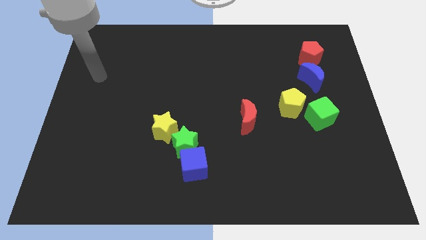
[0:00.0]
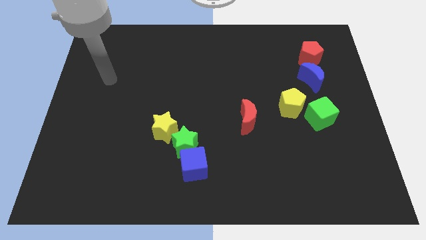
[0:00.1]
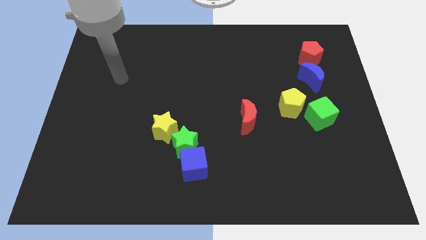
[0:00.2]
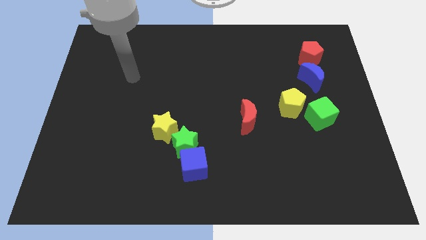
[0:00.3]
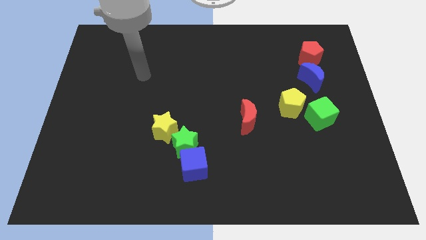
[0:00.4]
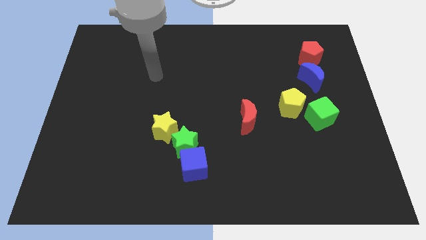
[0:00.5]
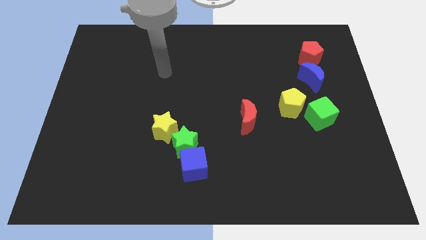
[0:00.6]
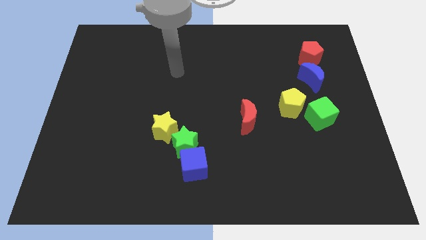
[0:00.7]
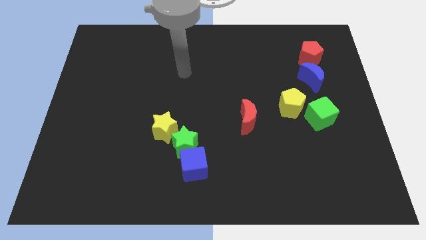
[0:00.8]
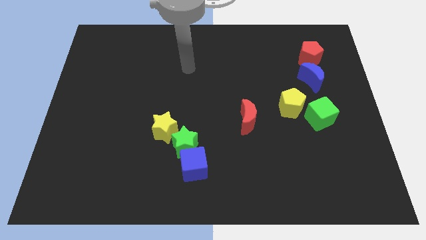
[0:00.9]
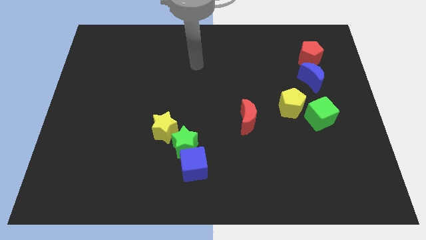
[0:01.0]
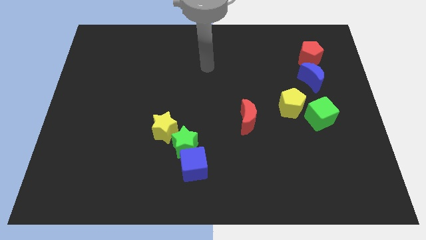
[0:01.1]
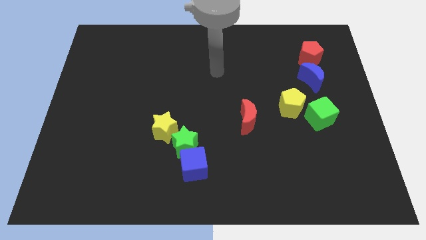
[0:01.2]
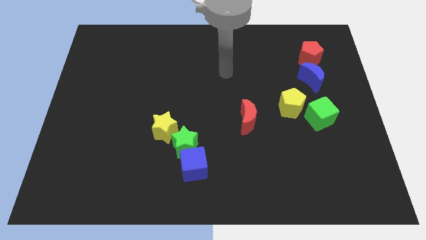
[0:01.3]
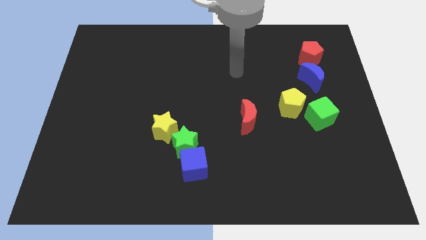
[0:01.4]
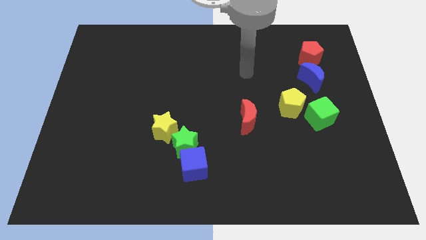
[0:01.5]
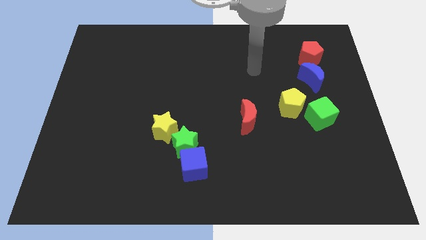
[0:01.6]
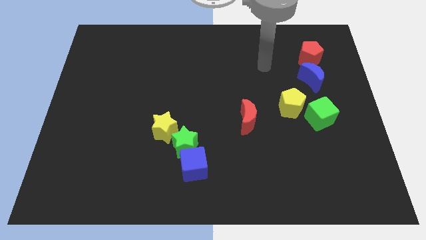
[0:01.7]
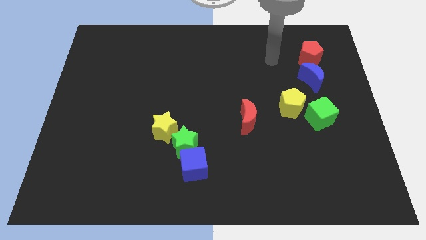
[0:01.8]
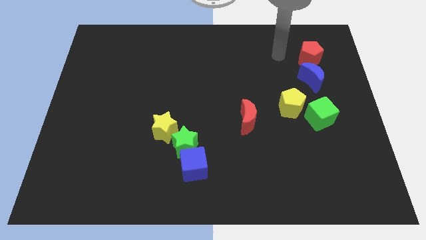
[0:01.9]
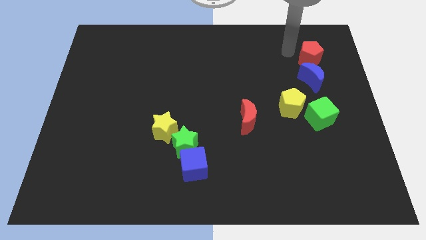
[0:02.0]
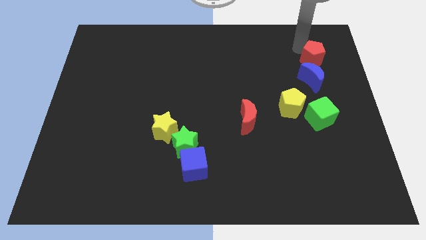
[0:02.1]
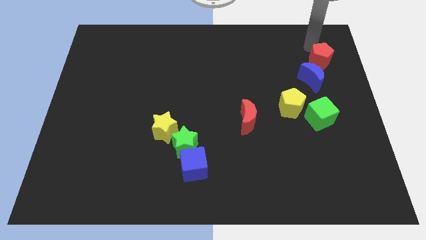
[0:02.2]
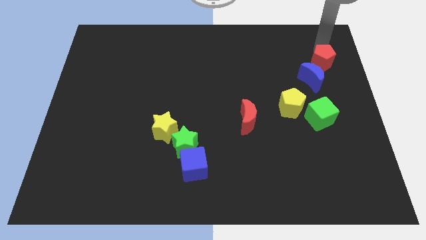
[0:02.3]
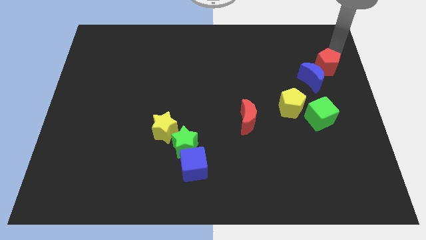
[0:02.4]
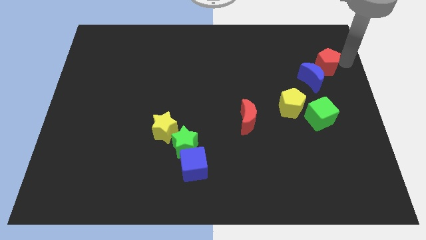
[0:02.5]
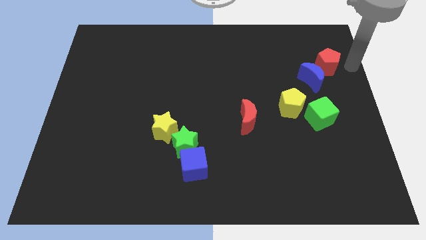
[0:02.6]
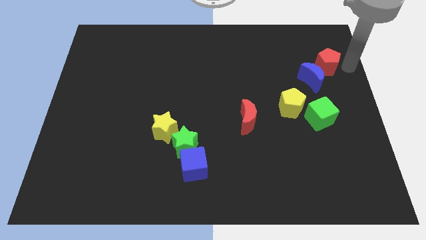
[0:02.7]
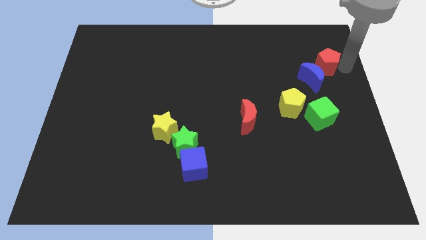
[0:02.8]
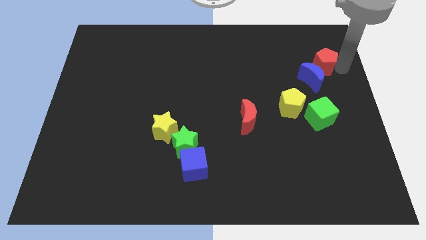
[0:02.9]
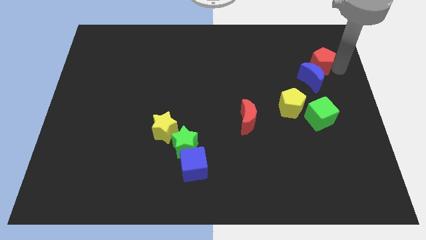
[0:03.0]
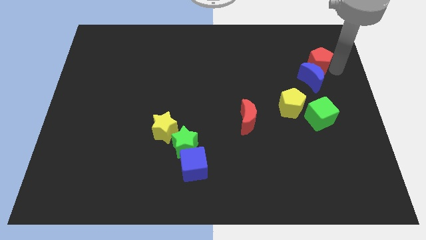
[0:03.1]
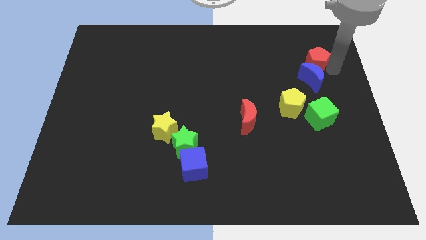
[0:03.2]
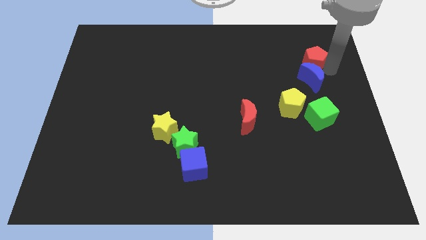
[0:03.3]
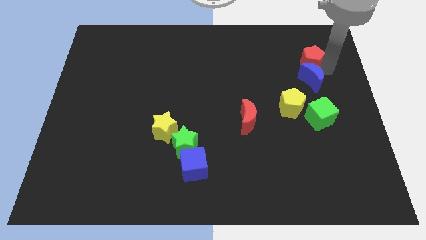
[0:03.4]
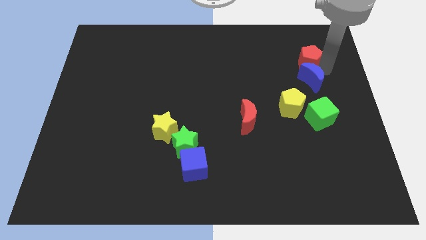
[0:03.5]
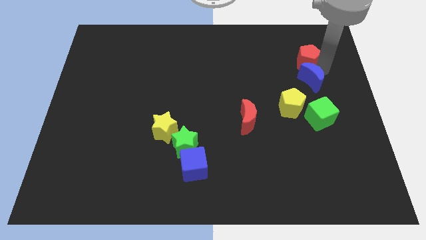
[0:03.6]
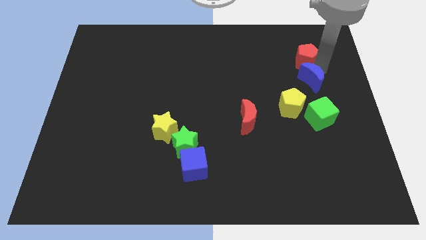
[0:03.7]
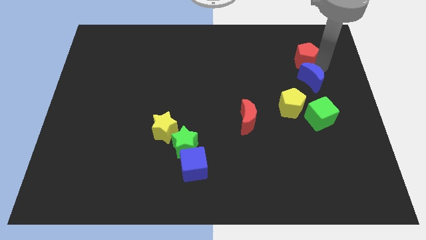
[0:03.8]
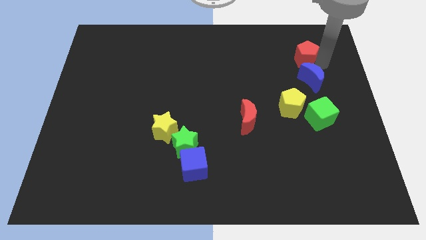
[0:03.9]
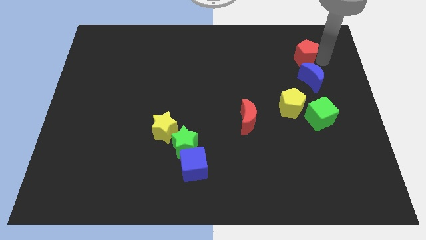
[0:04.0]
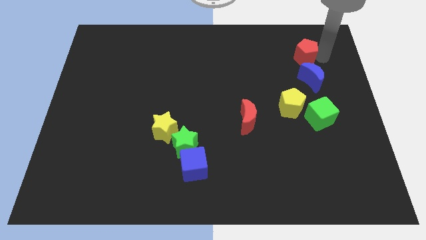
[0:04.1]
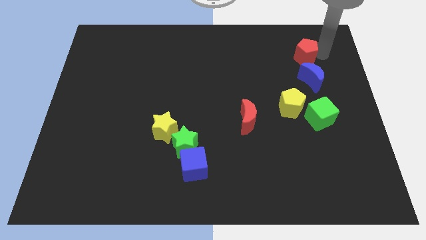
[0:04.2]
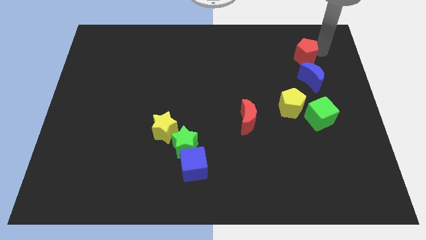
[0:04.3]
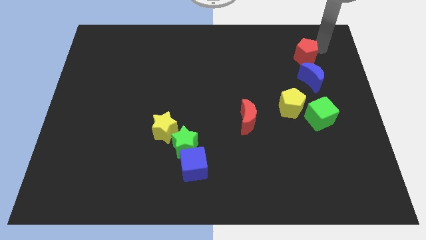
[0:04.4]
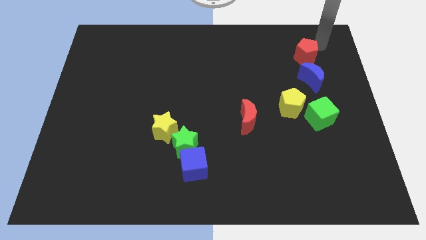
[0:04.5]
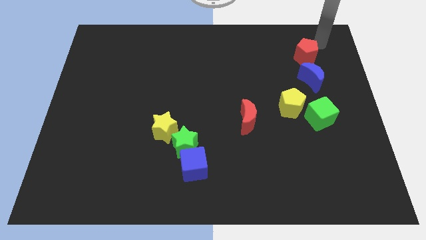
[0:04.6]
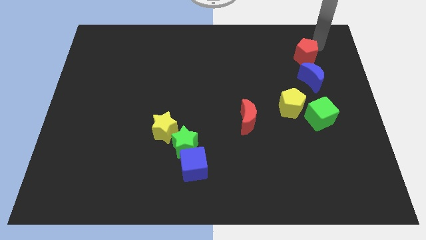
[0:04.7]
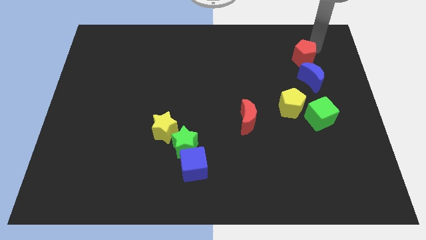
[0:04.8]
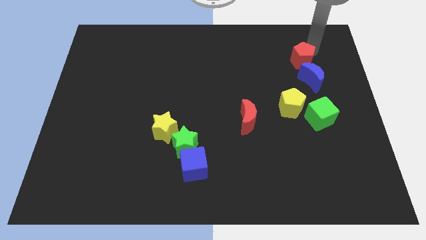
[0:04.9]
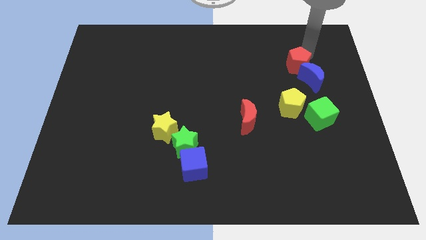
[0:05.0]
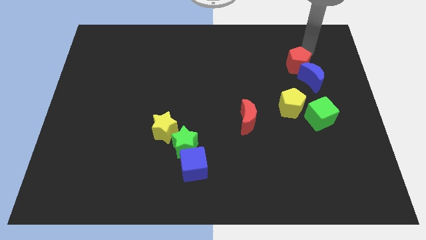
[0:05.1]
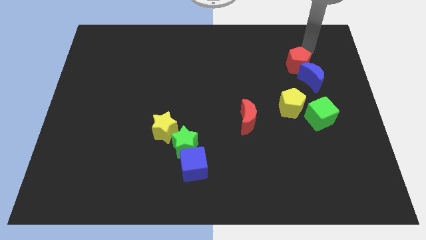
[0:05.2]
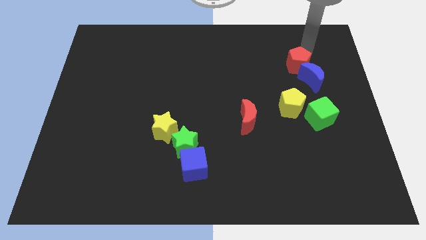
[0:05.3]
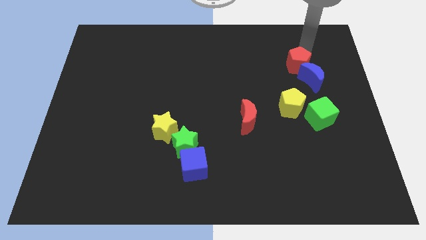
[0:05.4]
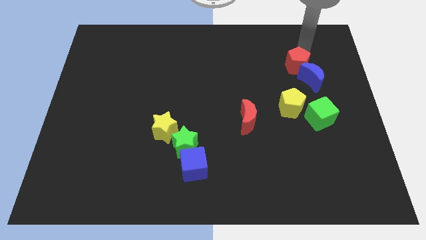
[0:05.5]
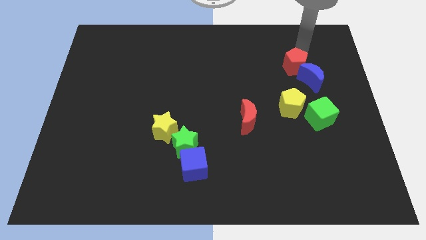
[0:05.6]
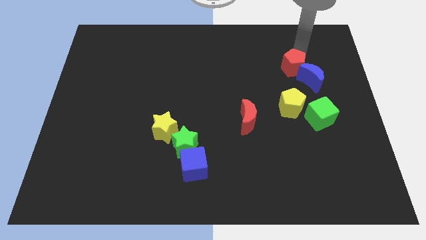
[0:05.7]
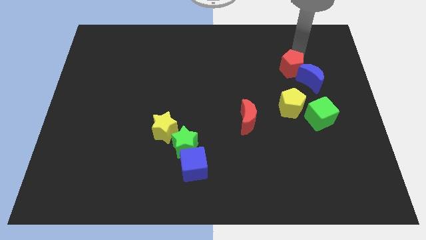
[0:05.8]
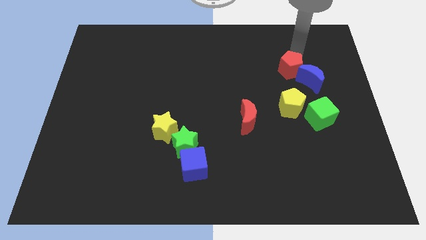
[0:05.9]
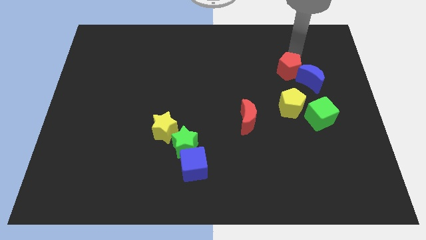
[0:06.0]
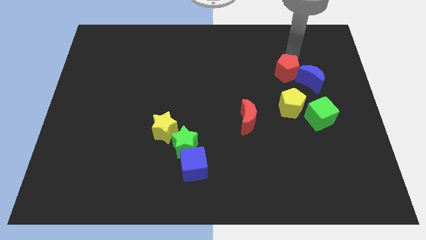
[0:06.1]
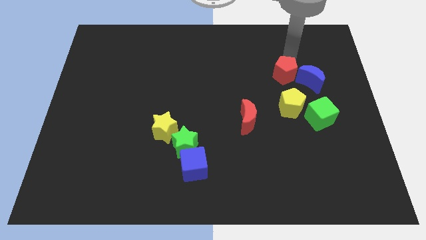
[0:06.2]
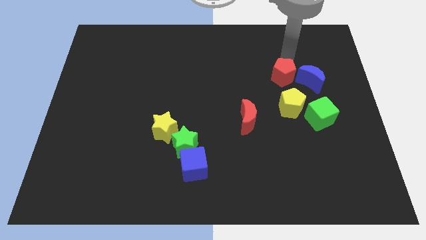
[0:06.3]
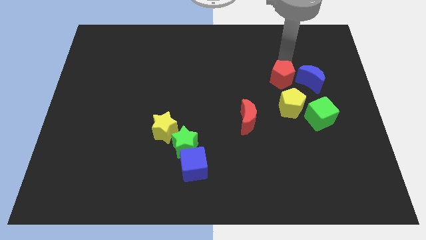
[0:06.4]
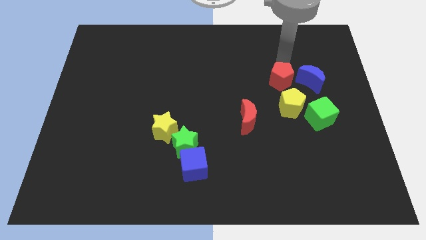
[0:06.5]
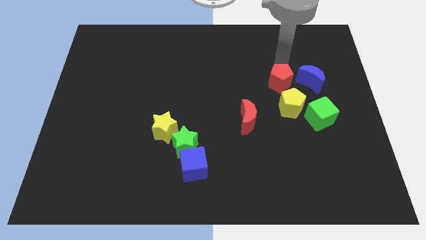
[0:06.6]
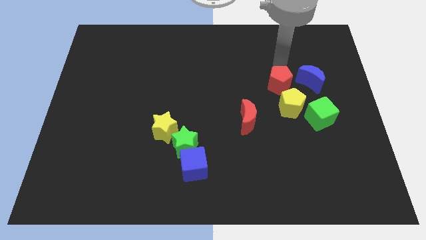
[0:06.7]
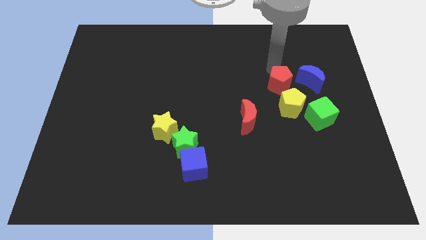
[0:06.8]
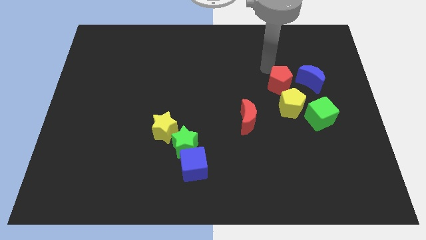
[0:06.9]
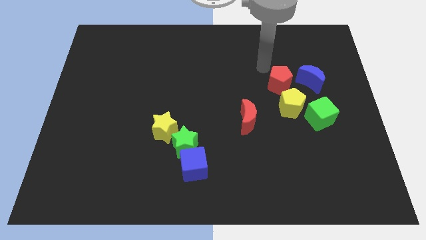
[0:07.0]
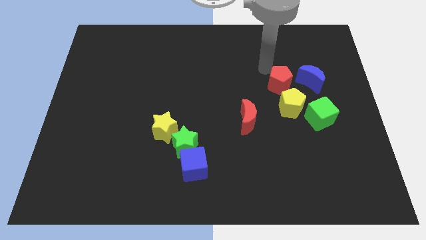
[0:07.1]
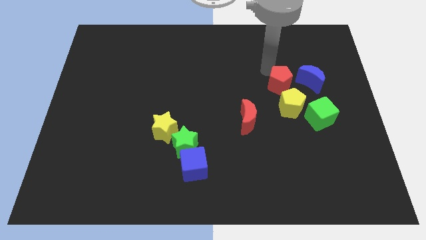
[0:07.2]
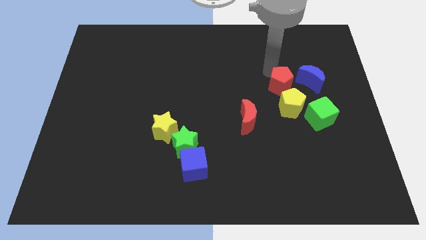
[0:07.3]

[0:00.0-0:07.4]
push the red pentagon diagonally up and to the left of the green cube
